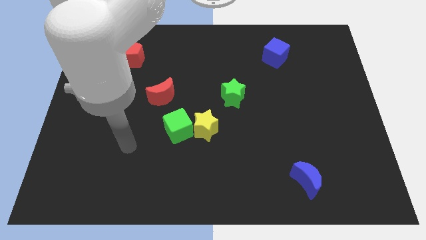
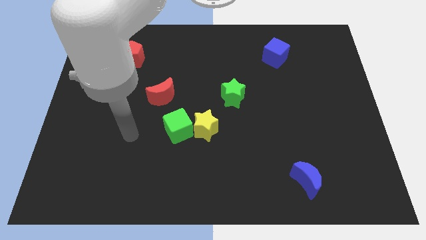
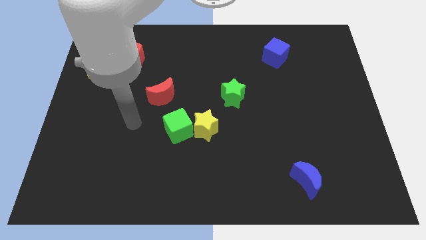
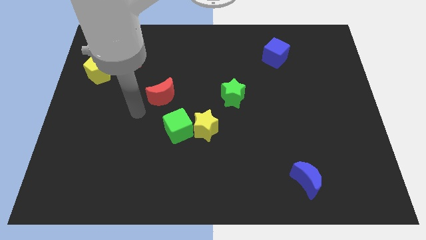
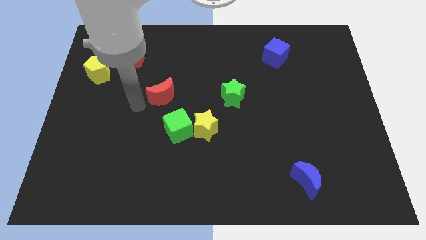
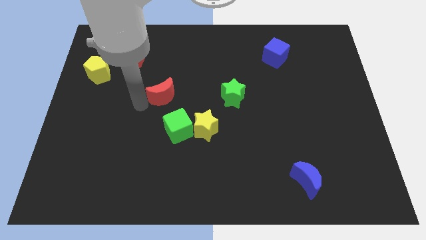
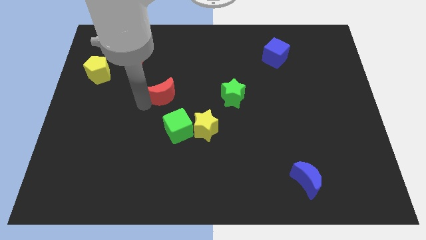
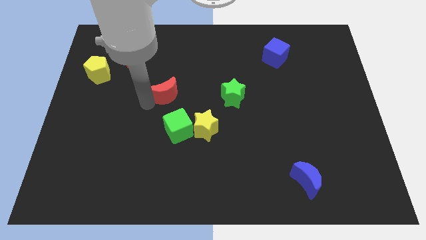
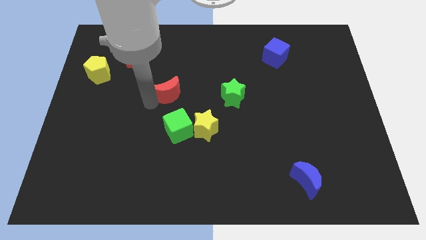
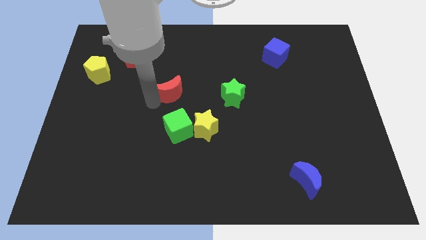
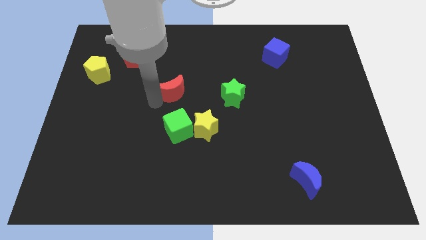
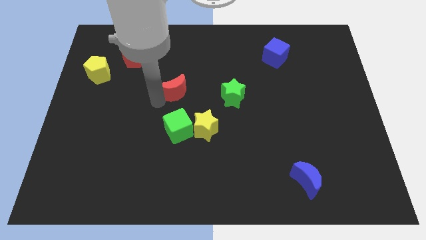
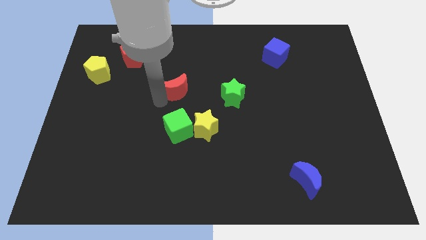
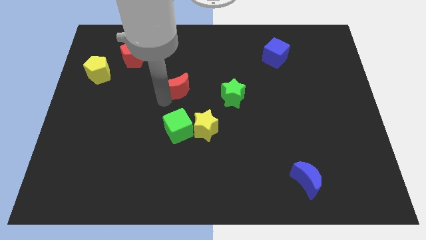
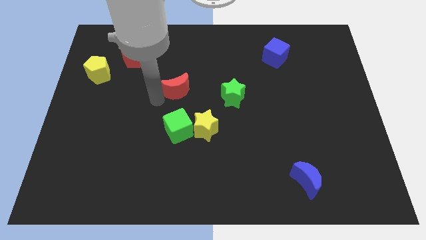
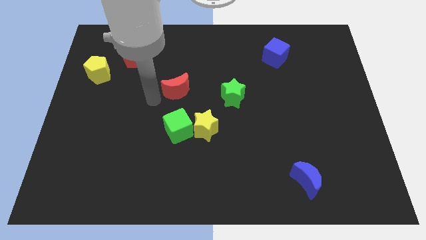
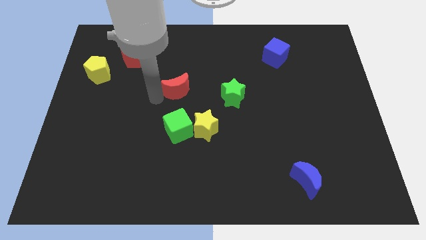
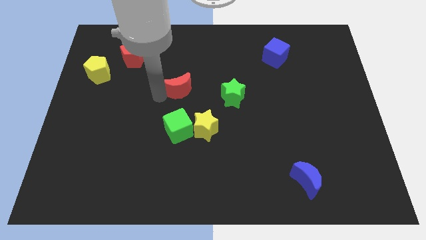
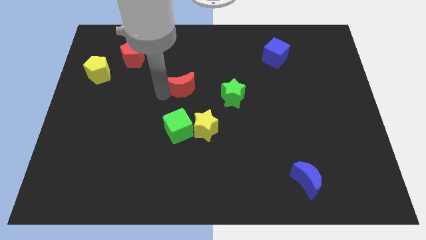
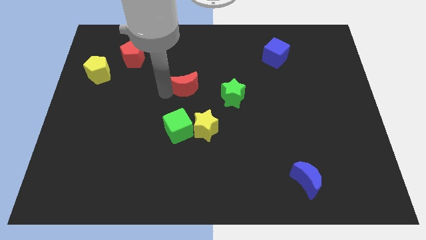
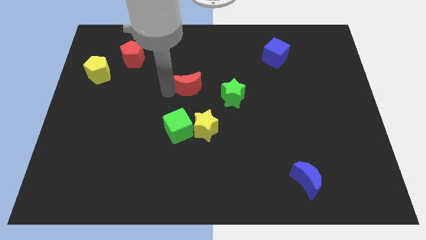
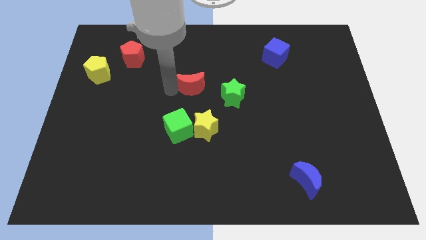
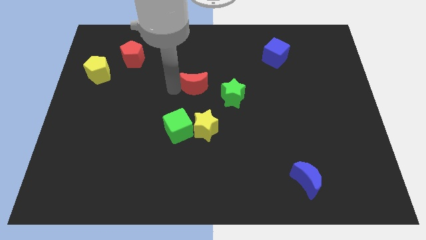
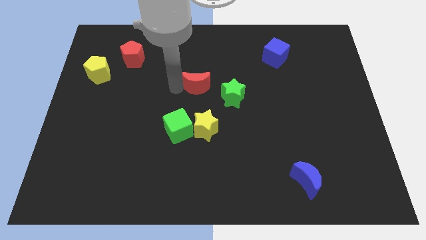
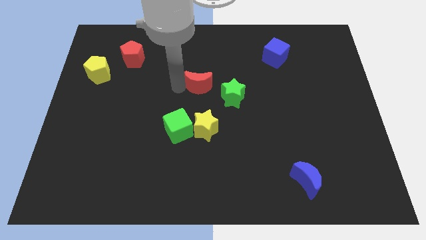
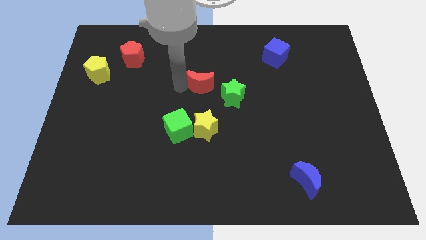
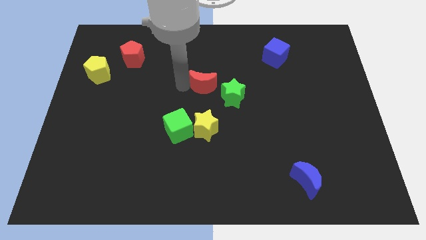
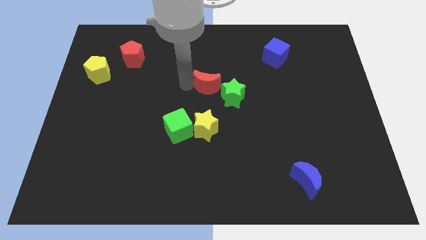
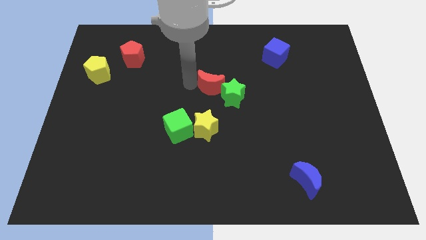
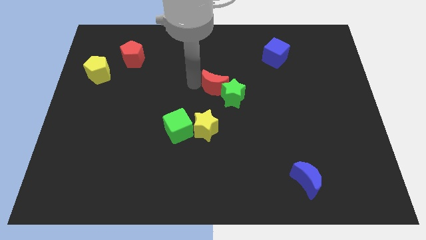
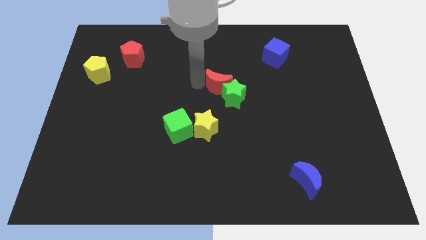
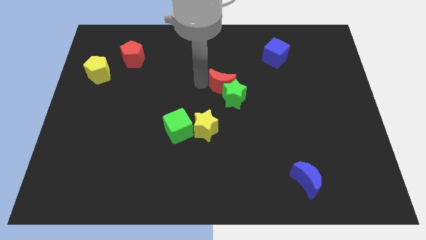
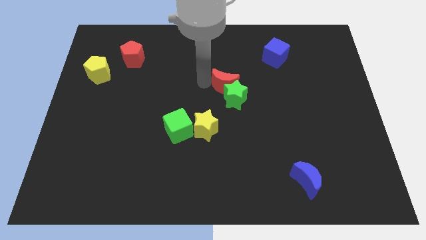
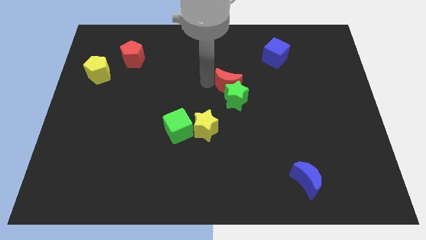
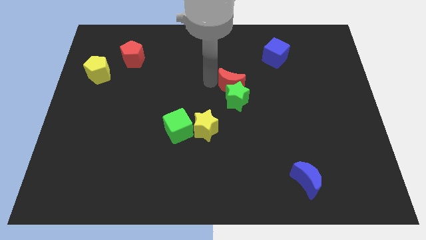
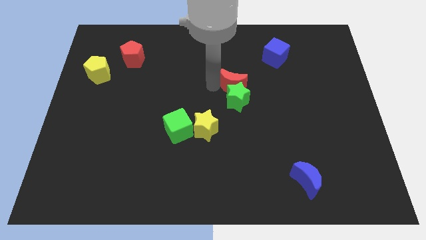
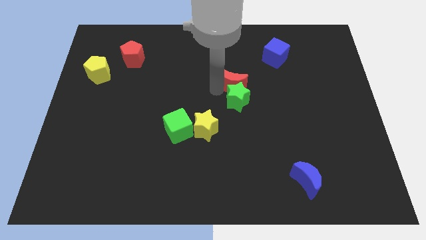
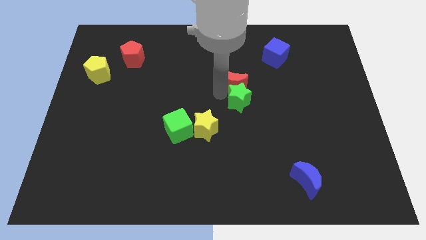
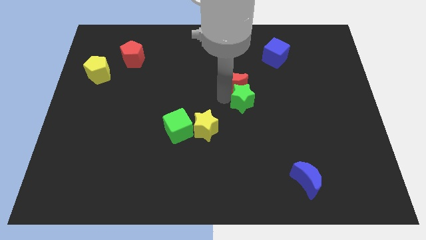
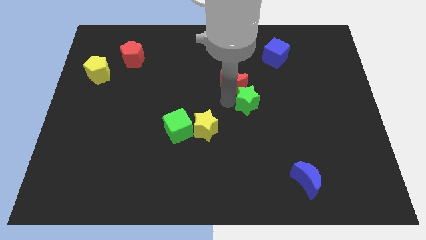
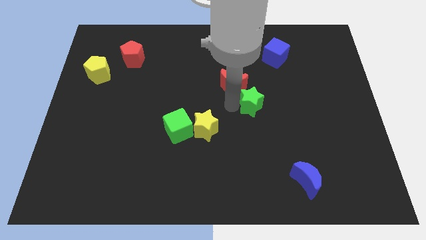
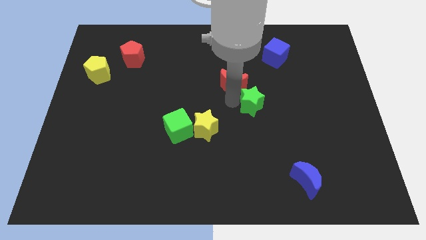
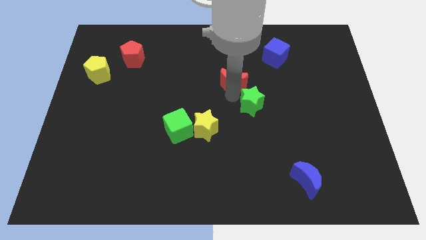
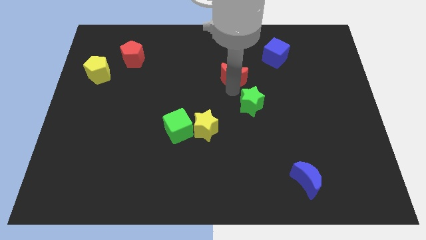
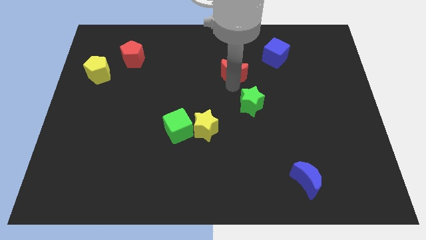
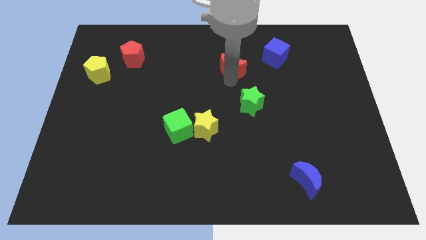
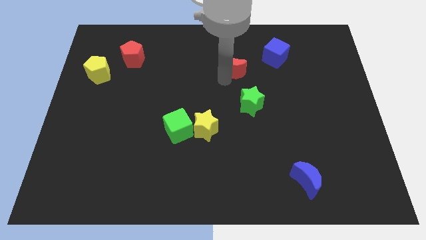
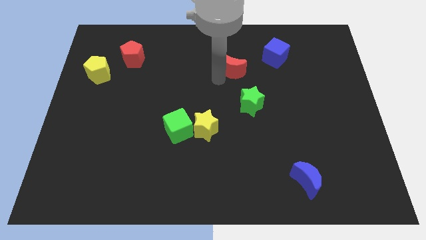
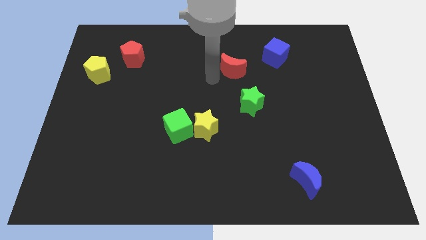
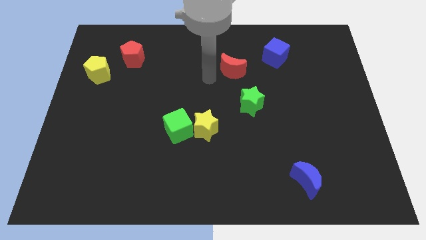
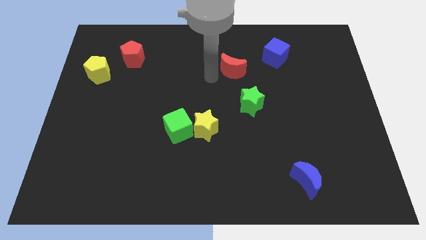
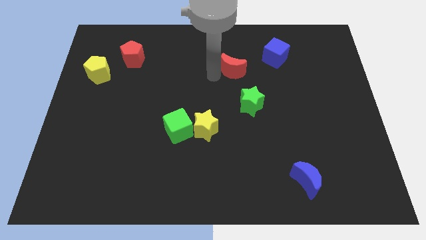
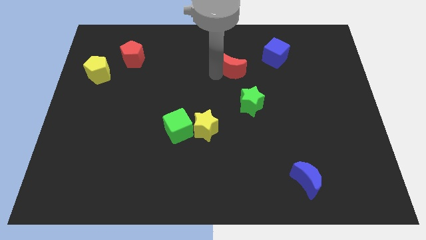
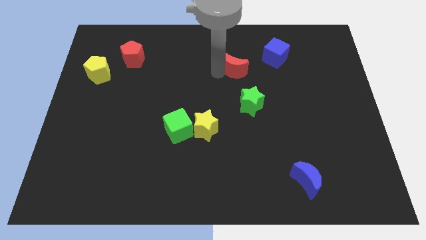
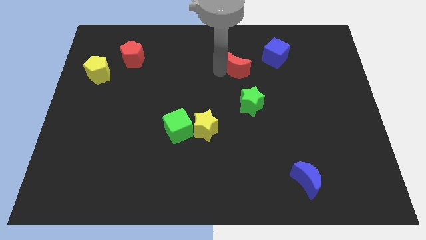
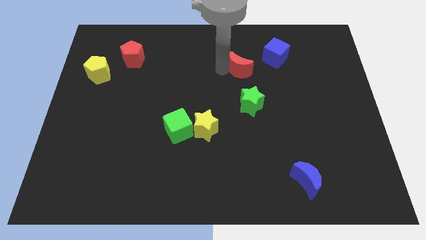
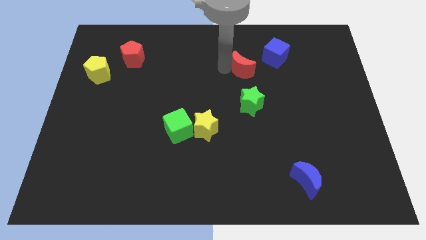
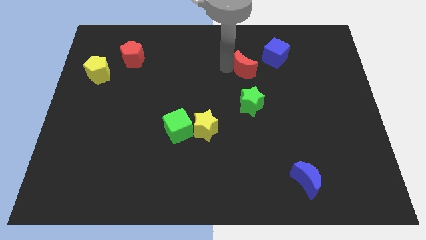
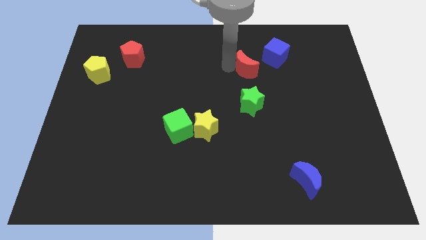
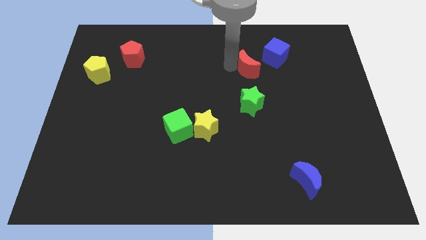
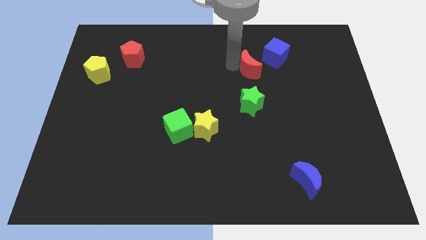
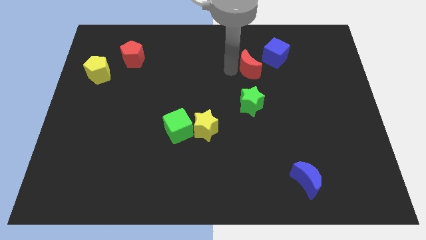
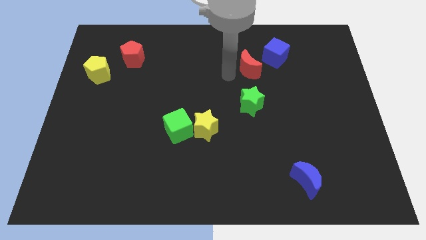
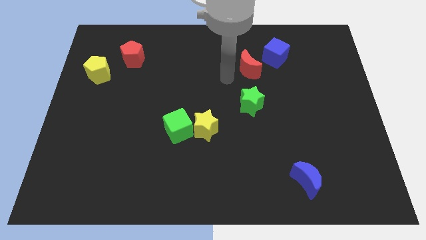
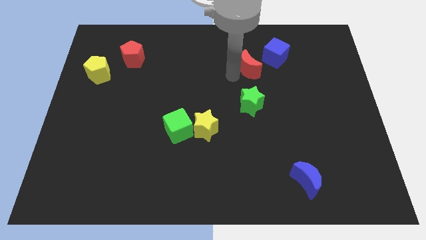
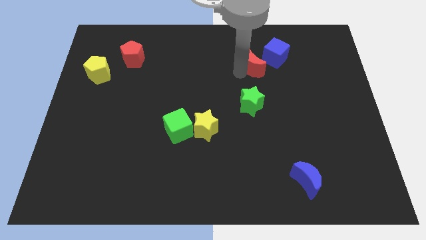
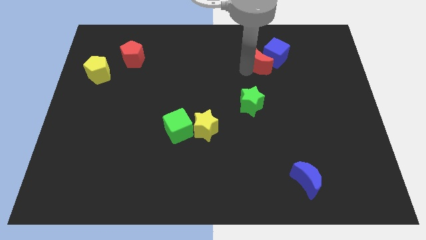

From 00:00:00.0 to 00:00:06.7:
put the red moon next to the blue cube
